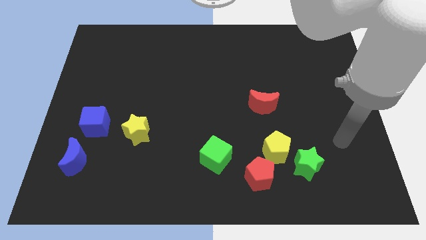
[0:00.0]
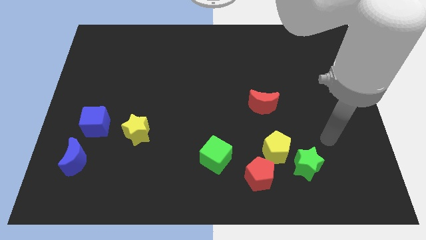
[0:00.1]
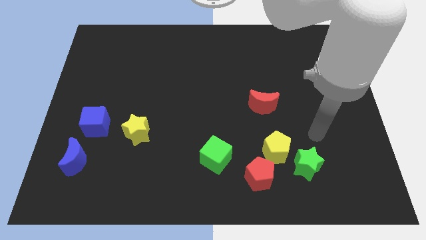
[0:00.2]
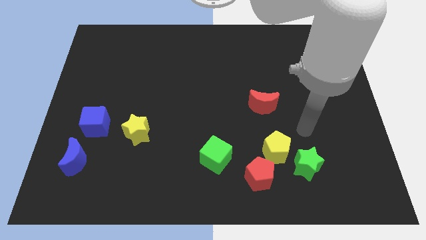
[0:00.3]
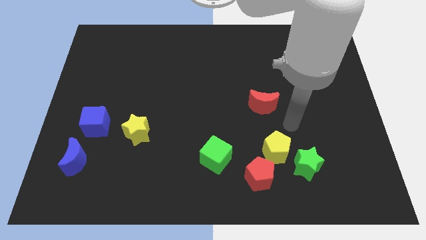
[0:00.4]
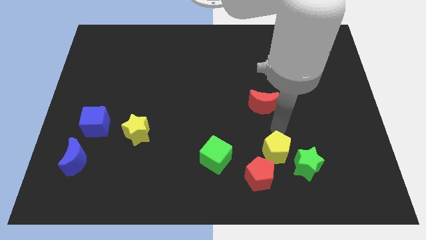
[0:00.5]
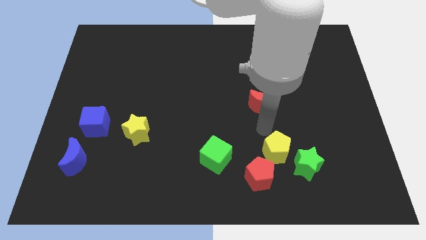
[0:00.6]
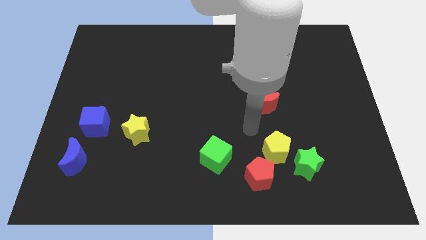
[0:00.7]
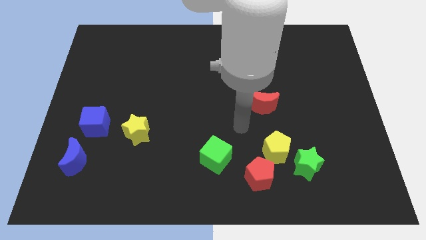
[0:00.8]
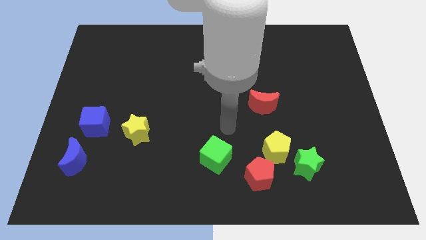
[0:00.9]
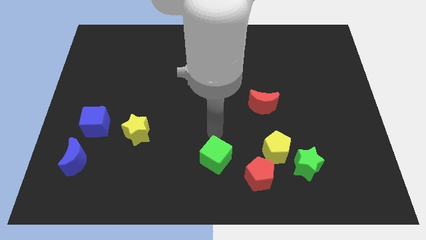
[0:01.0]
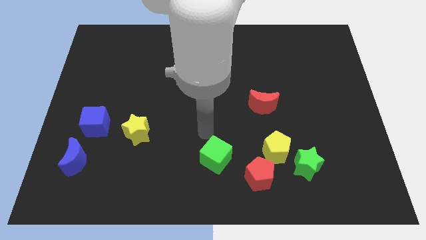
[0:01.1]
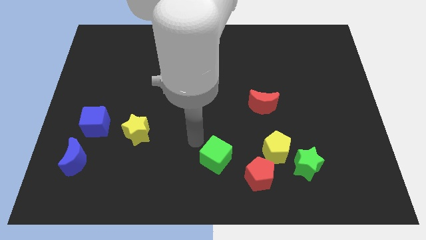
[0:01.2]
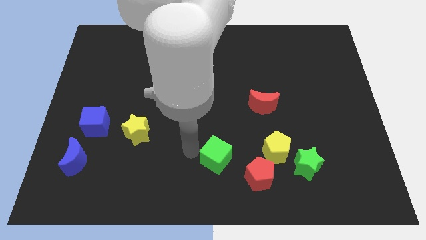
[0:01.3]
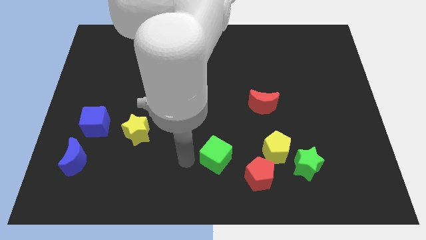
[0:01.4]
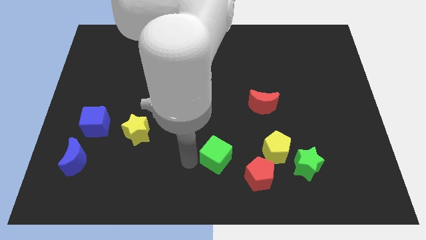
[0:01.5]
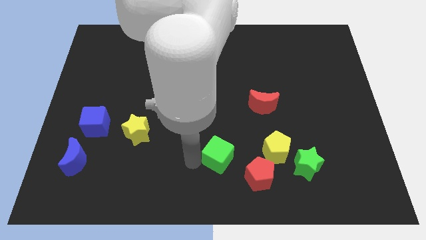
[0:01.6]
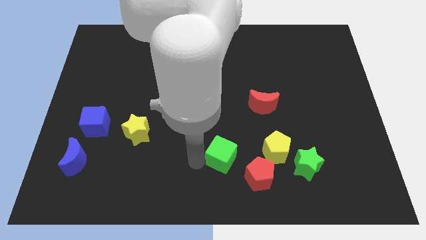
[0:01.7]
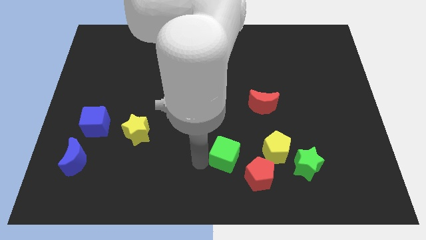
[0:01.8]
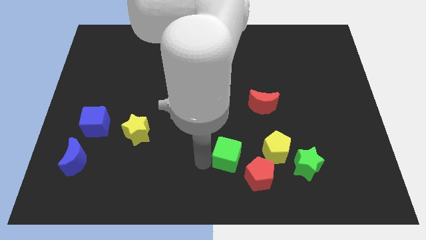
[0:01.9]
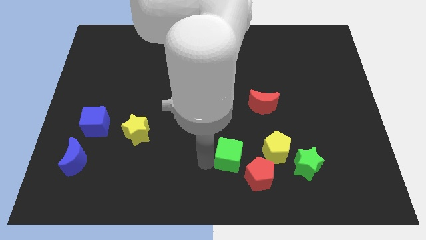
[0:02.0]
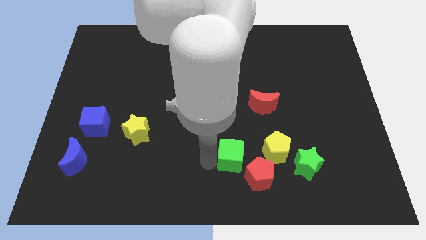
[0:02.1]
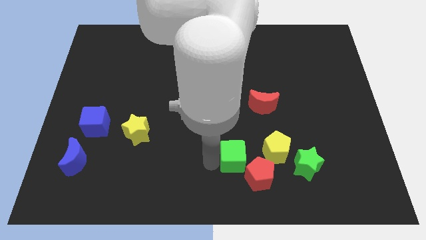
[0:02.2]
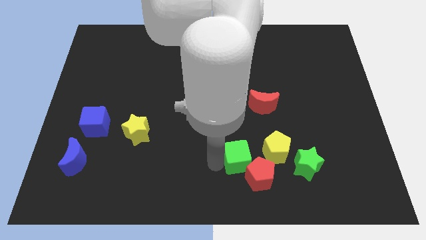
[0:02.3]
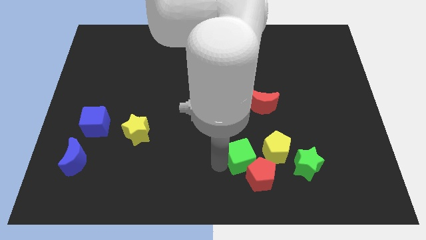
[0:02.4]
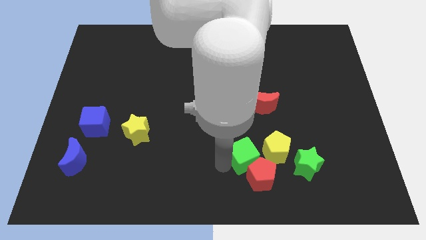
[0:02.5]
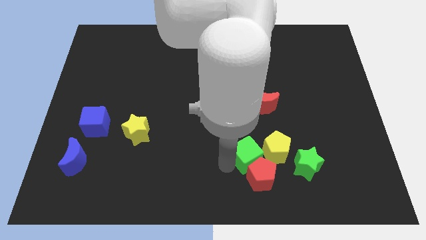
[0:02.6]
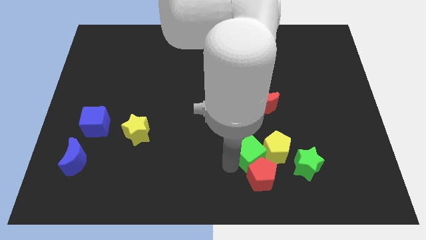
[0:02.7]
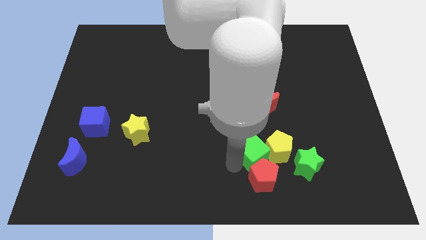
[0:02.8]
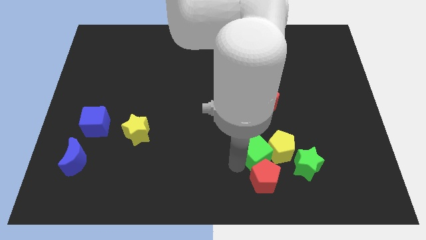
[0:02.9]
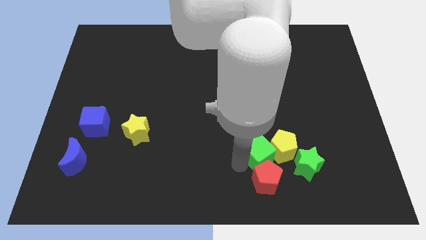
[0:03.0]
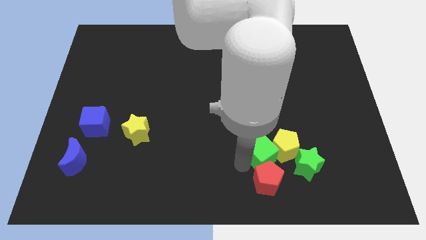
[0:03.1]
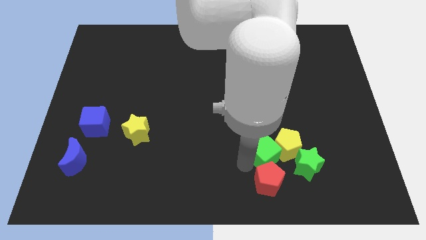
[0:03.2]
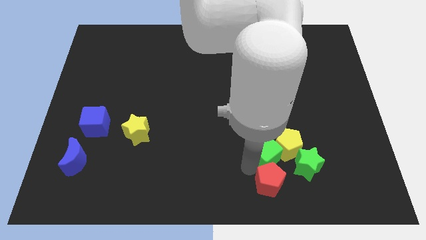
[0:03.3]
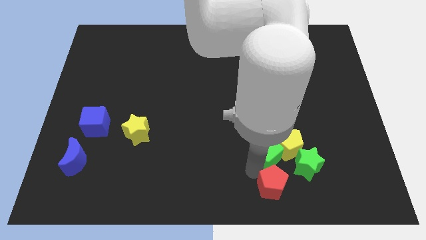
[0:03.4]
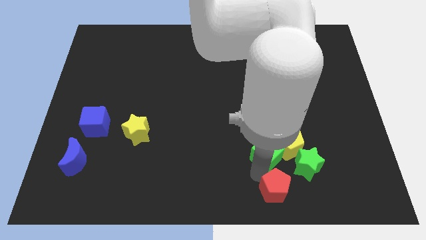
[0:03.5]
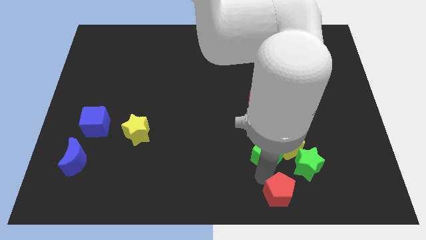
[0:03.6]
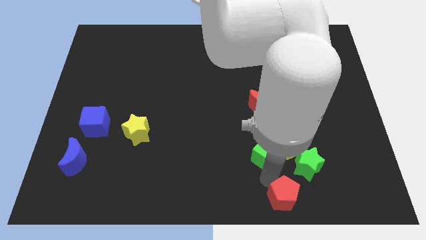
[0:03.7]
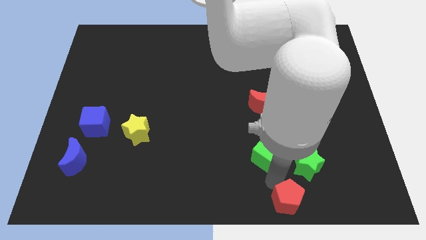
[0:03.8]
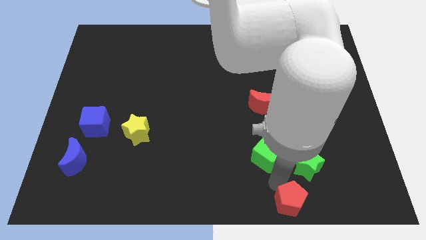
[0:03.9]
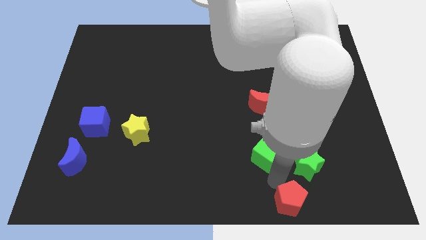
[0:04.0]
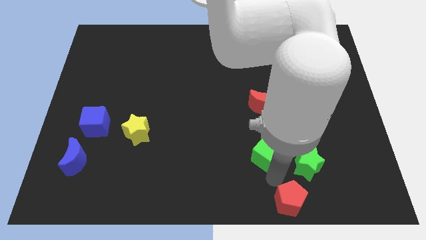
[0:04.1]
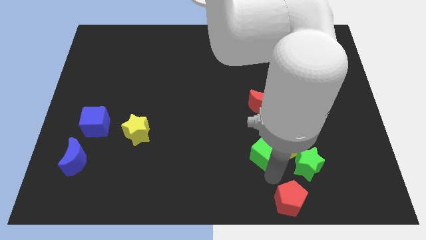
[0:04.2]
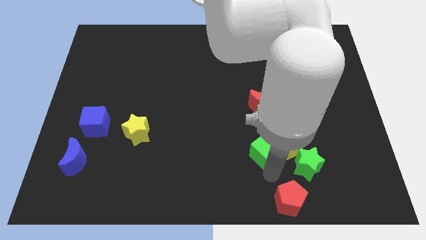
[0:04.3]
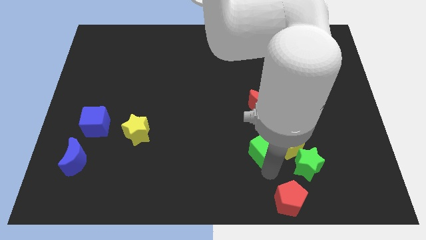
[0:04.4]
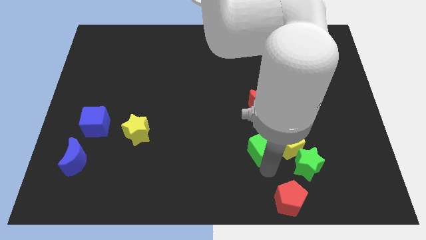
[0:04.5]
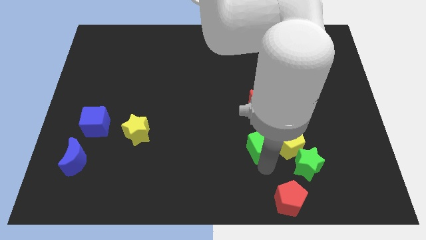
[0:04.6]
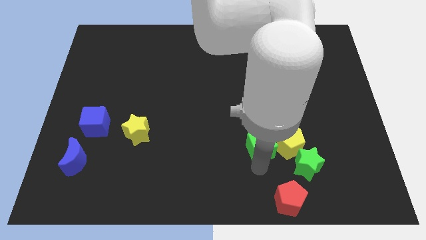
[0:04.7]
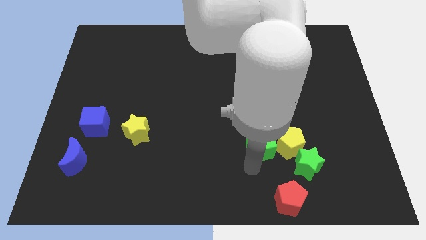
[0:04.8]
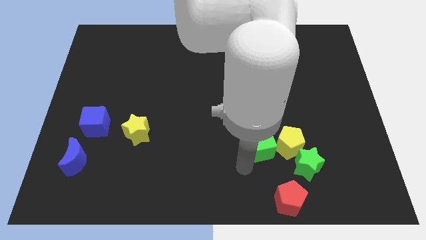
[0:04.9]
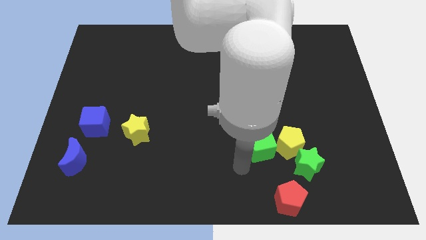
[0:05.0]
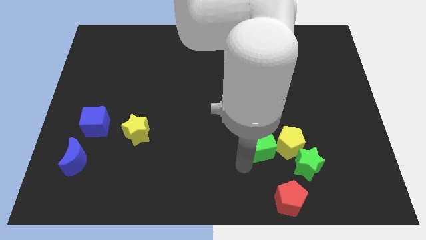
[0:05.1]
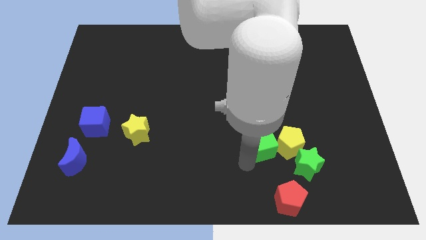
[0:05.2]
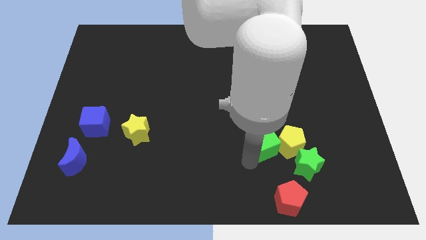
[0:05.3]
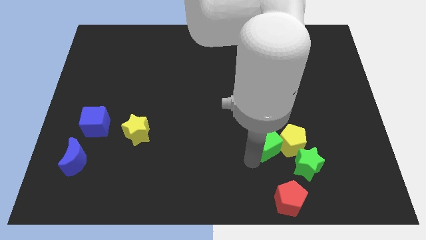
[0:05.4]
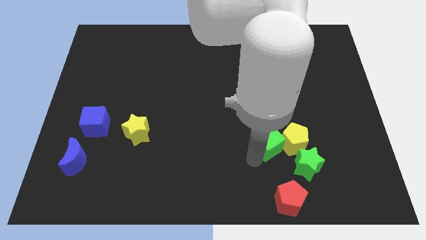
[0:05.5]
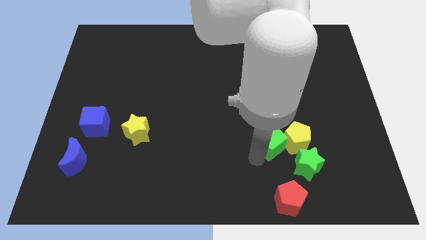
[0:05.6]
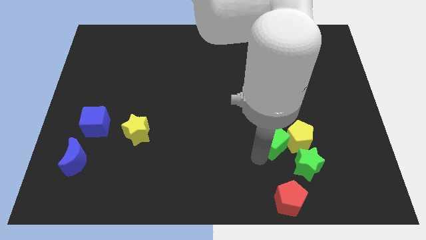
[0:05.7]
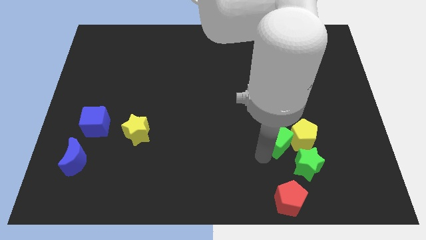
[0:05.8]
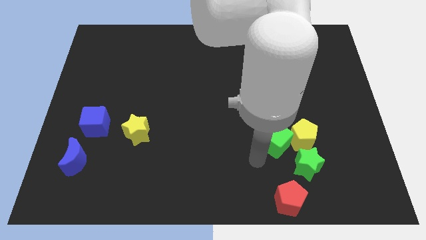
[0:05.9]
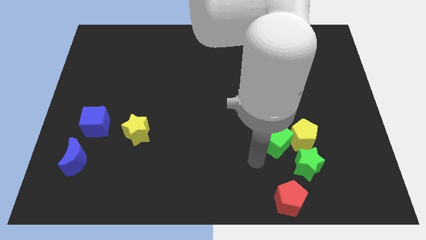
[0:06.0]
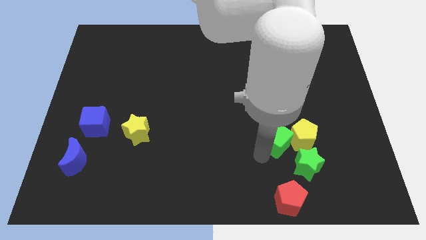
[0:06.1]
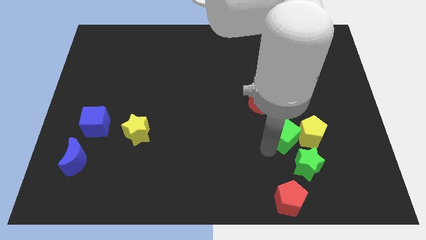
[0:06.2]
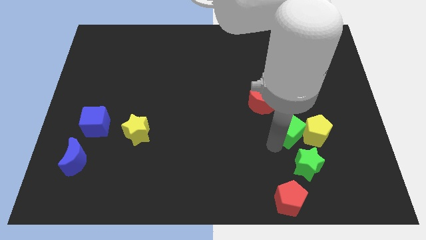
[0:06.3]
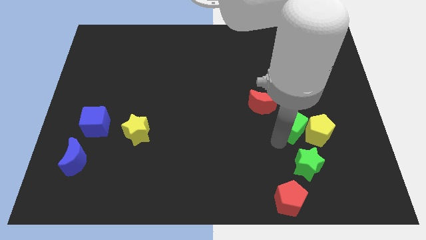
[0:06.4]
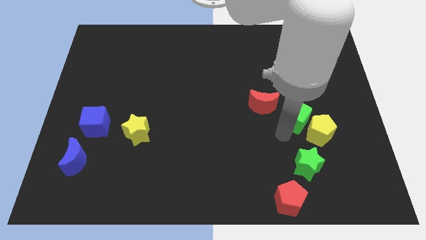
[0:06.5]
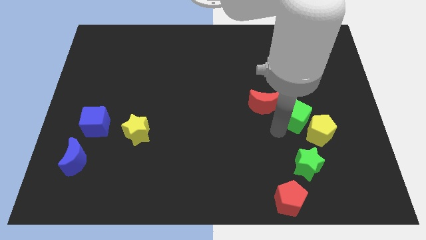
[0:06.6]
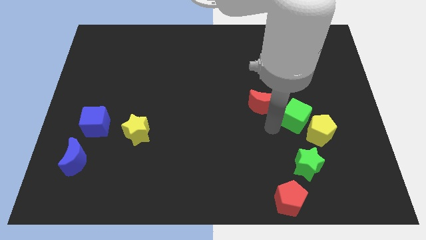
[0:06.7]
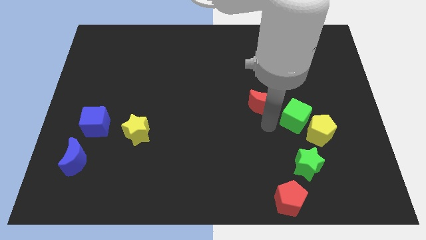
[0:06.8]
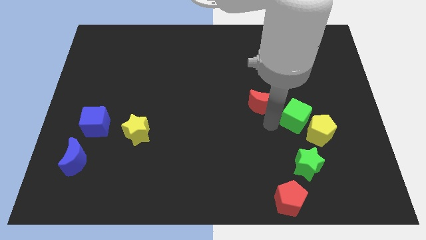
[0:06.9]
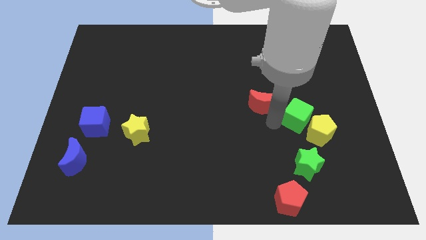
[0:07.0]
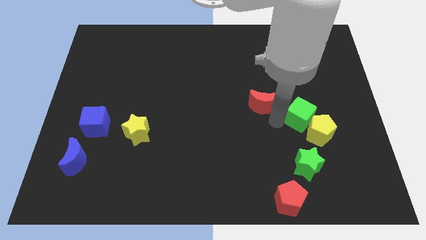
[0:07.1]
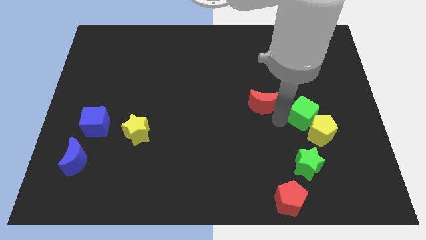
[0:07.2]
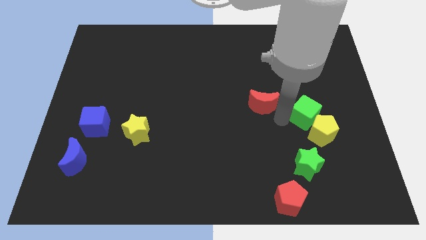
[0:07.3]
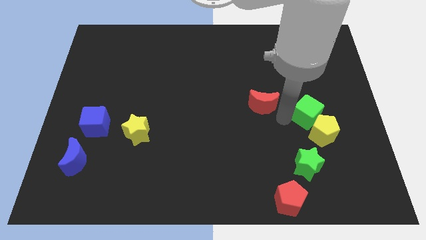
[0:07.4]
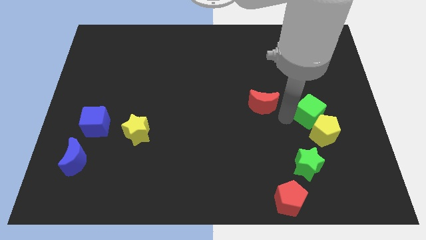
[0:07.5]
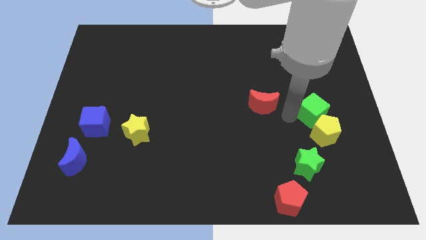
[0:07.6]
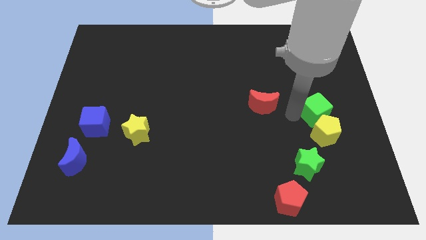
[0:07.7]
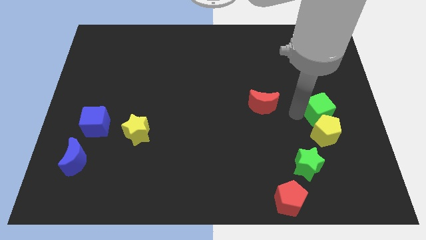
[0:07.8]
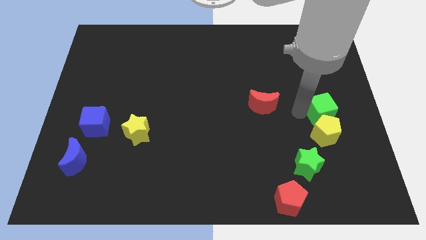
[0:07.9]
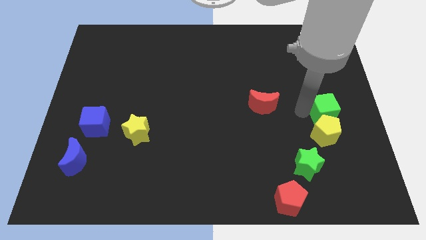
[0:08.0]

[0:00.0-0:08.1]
move the green cube to the center right
